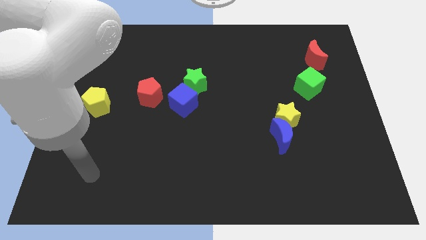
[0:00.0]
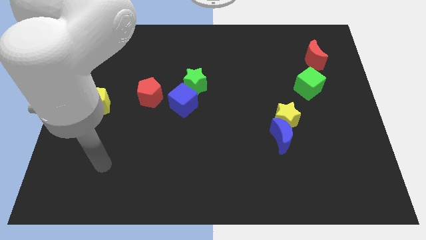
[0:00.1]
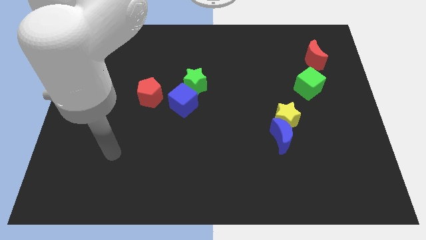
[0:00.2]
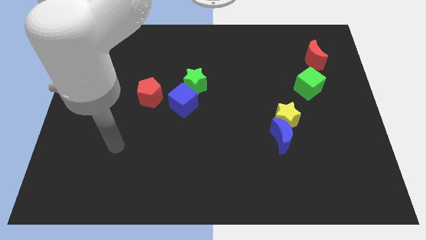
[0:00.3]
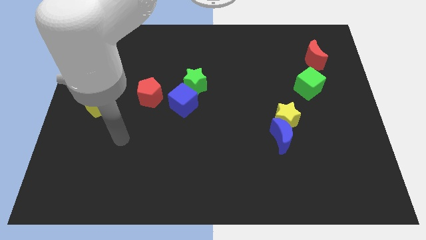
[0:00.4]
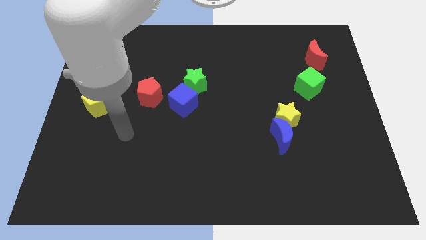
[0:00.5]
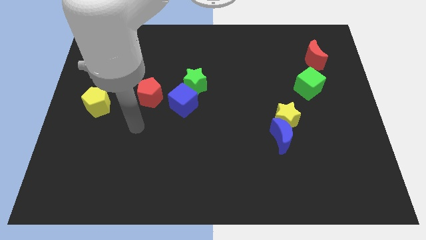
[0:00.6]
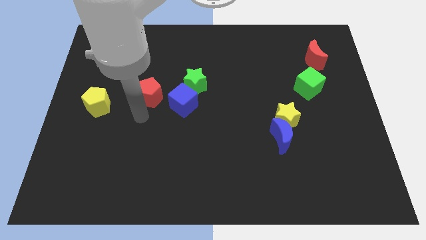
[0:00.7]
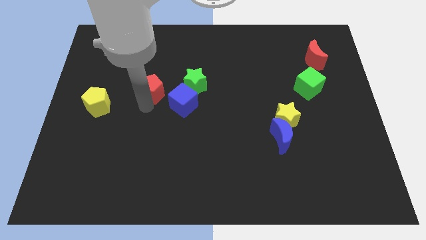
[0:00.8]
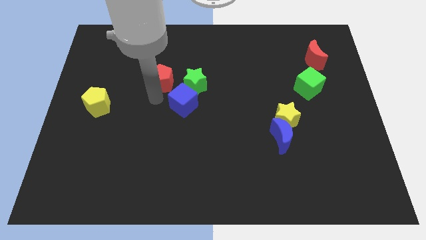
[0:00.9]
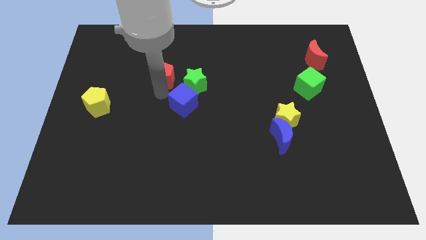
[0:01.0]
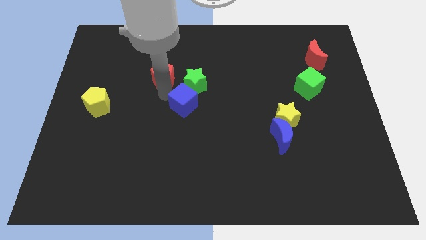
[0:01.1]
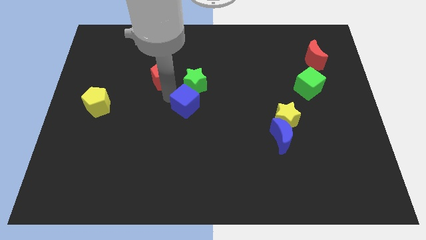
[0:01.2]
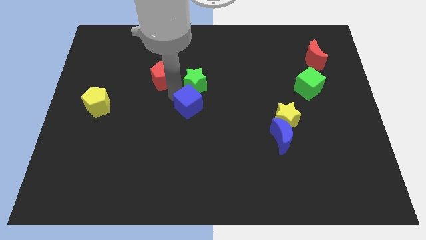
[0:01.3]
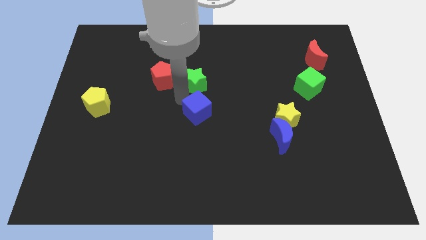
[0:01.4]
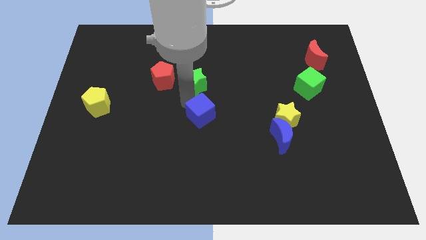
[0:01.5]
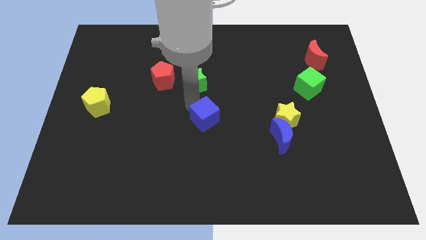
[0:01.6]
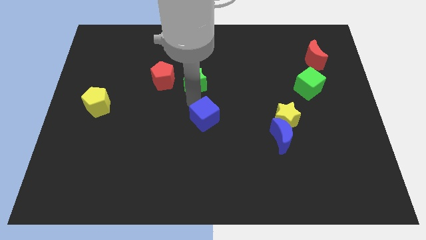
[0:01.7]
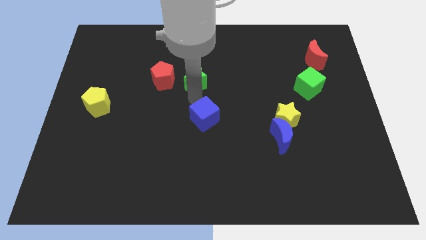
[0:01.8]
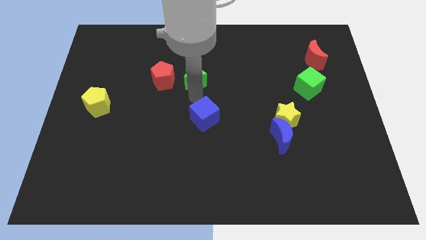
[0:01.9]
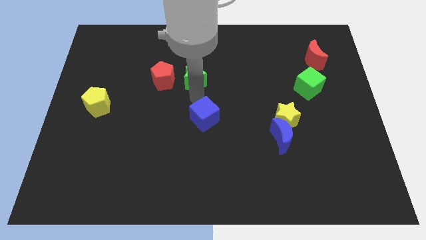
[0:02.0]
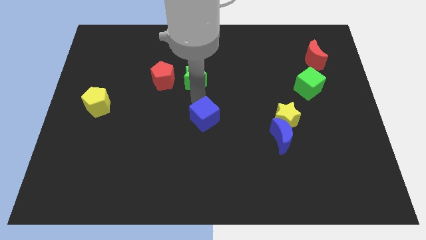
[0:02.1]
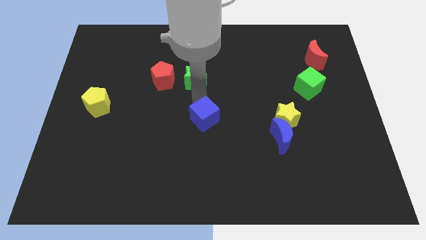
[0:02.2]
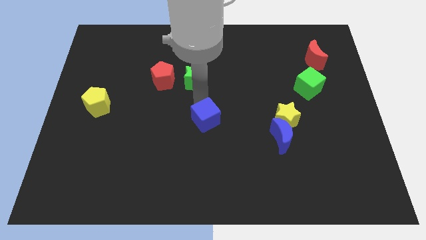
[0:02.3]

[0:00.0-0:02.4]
slightly move the blue cube down and then right

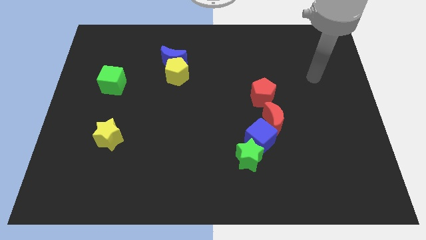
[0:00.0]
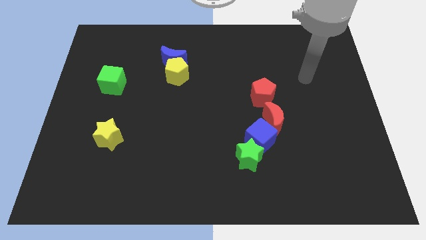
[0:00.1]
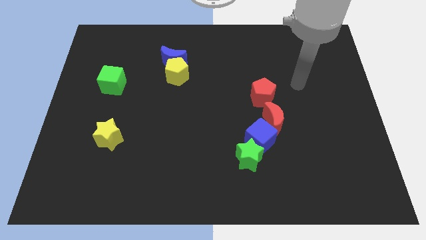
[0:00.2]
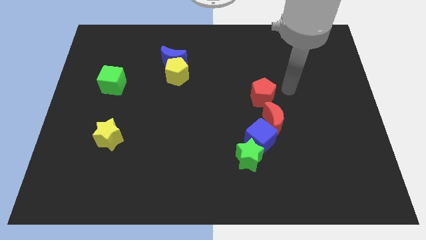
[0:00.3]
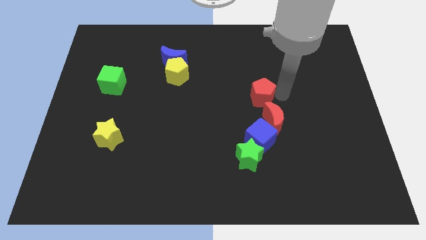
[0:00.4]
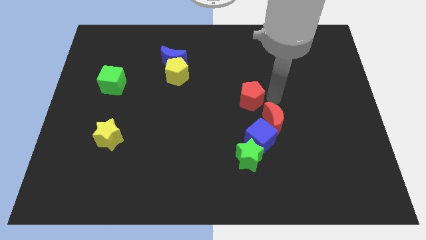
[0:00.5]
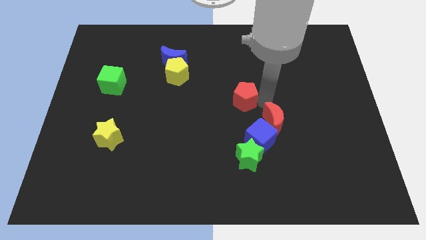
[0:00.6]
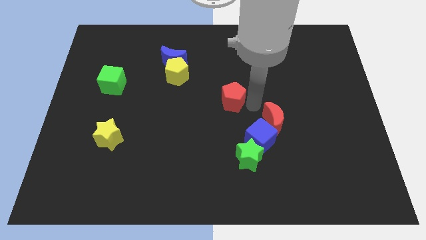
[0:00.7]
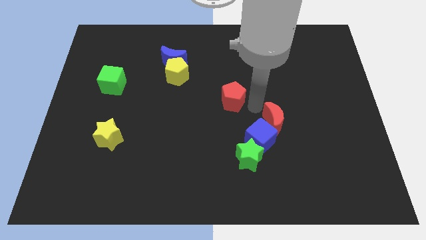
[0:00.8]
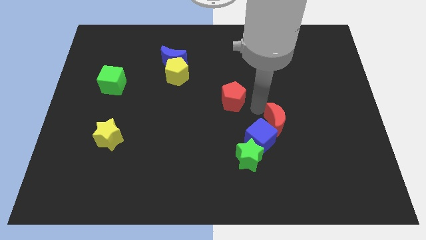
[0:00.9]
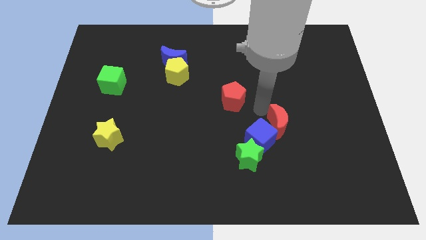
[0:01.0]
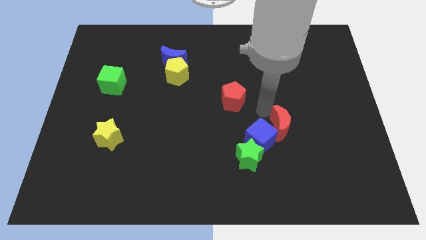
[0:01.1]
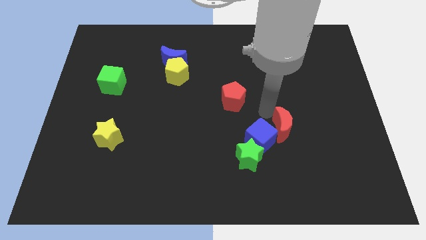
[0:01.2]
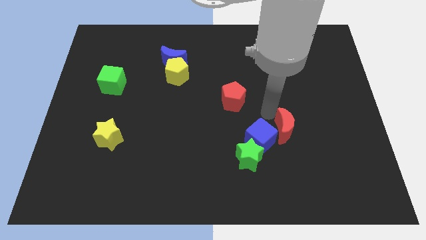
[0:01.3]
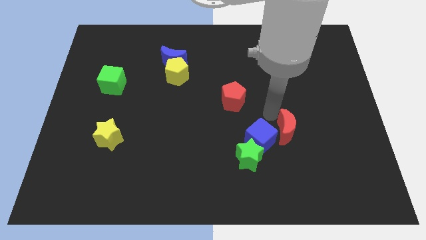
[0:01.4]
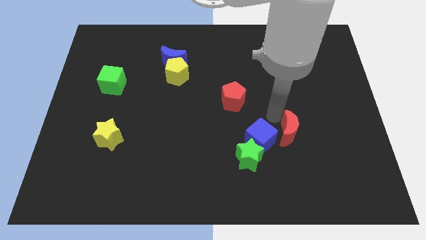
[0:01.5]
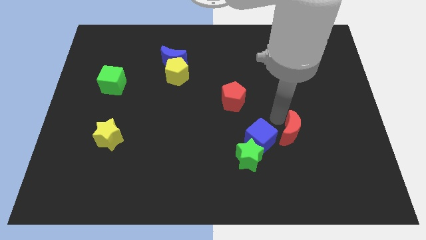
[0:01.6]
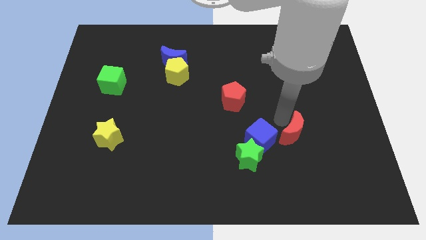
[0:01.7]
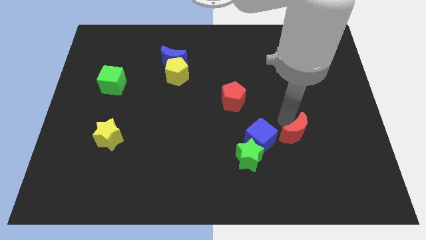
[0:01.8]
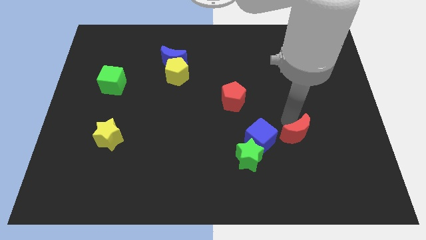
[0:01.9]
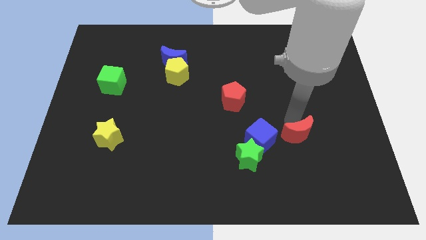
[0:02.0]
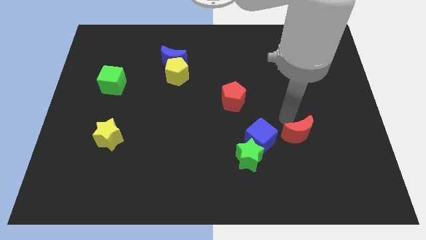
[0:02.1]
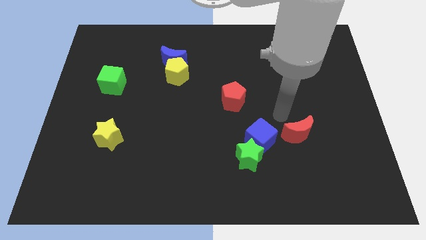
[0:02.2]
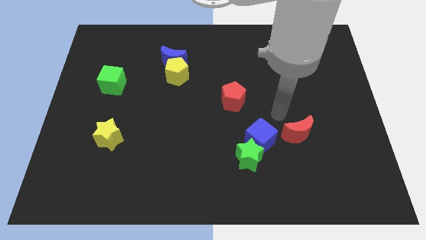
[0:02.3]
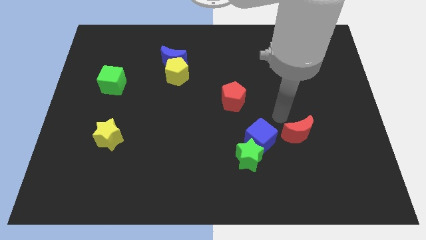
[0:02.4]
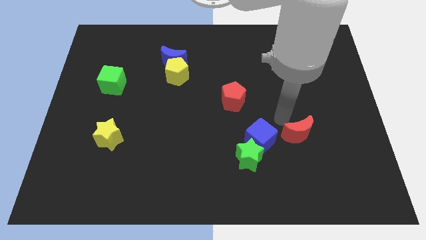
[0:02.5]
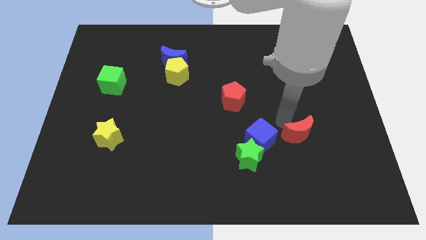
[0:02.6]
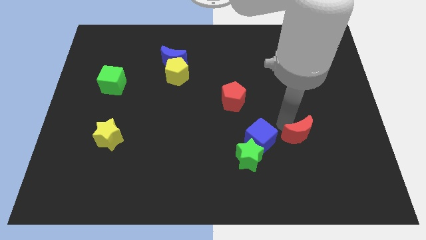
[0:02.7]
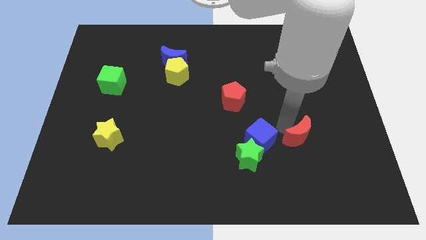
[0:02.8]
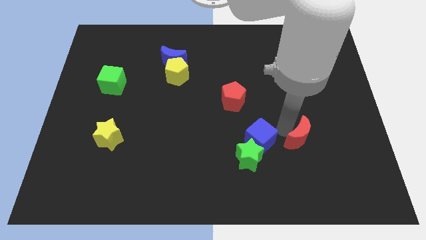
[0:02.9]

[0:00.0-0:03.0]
slightly push the red moon diagonally down and right

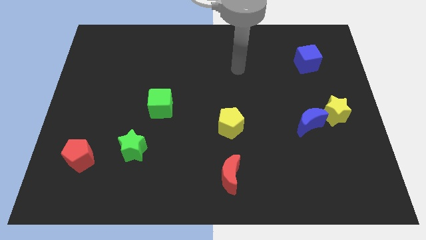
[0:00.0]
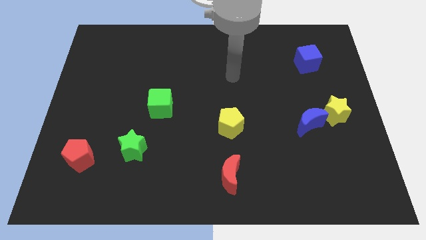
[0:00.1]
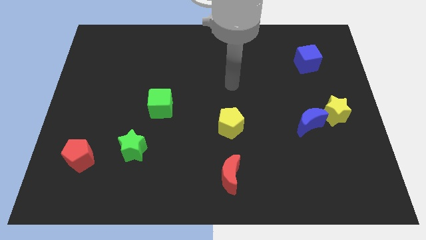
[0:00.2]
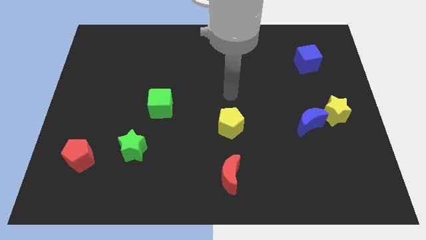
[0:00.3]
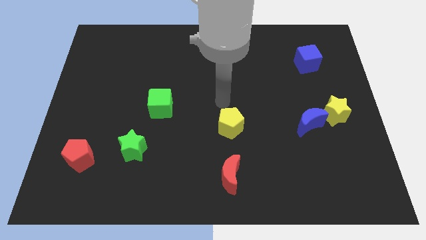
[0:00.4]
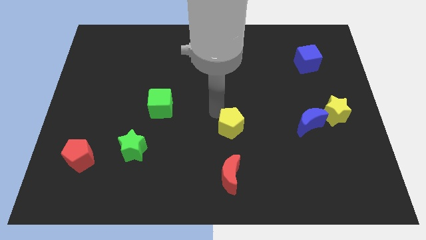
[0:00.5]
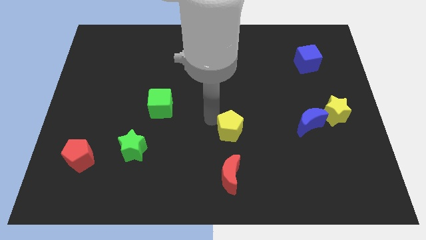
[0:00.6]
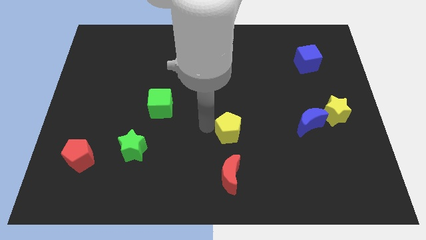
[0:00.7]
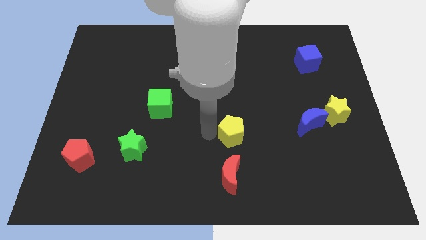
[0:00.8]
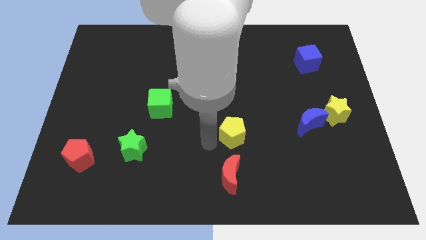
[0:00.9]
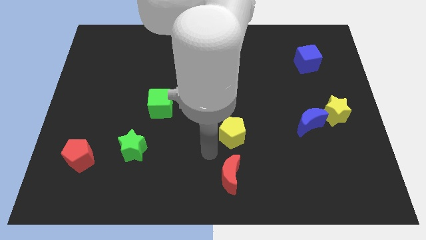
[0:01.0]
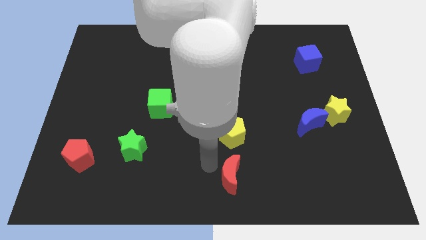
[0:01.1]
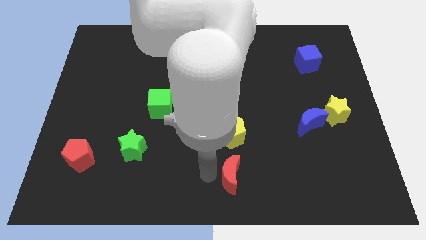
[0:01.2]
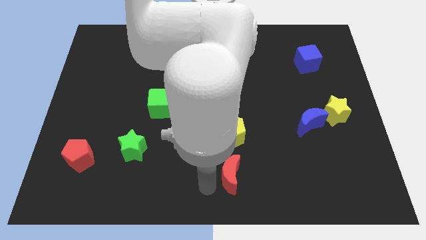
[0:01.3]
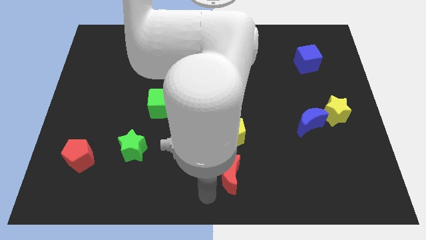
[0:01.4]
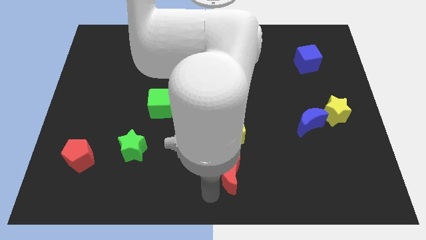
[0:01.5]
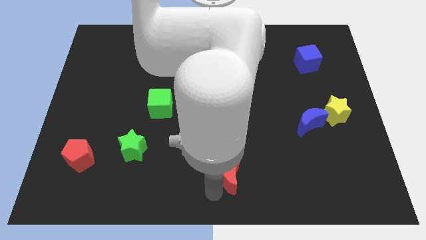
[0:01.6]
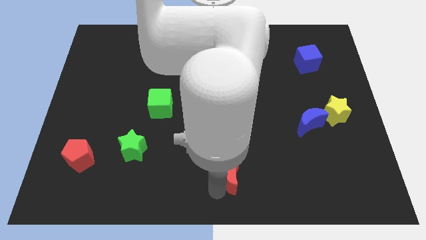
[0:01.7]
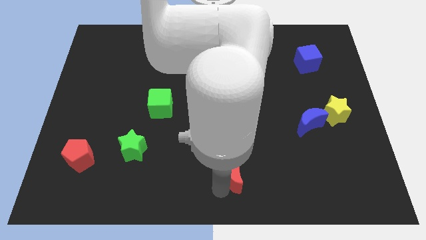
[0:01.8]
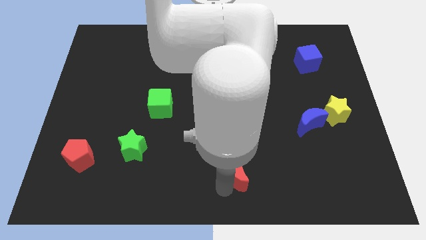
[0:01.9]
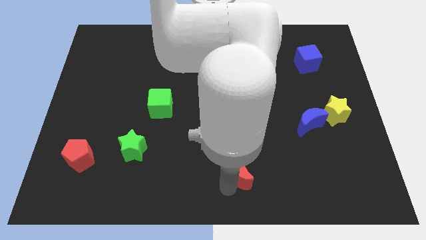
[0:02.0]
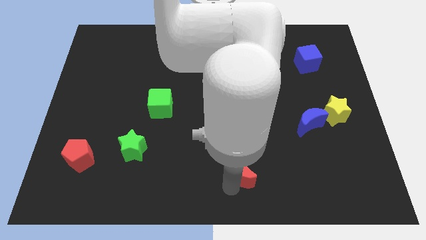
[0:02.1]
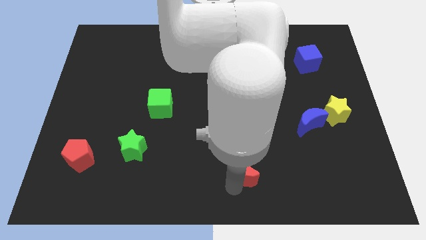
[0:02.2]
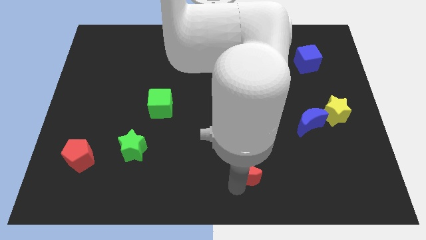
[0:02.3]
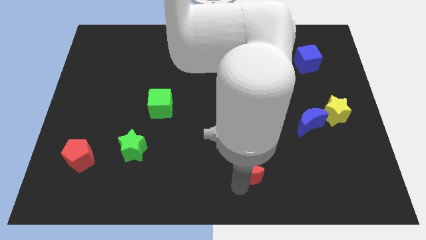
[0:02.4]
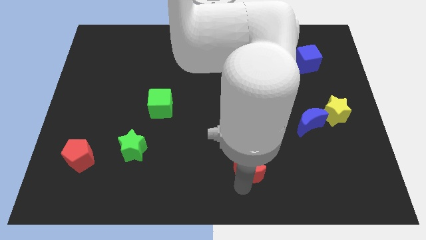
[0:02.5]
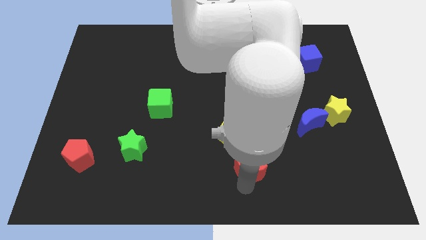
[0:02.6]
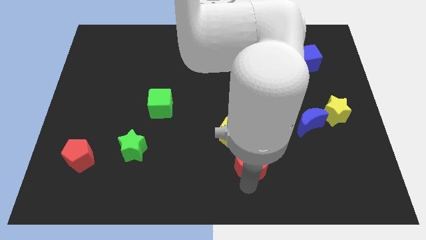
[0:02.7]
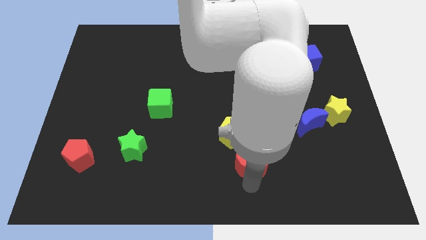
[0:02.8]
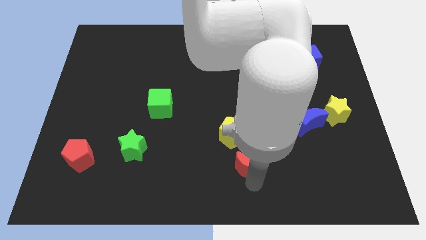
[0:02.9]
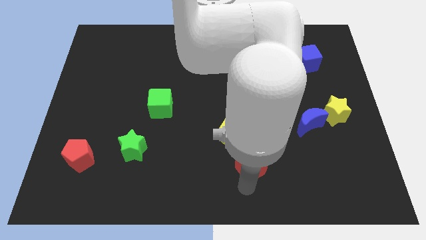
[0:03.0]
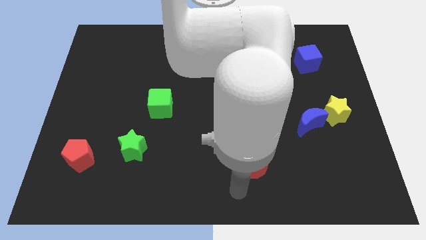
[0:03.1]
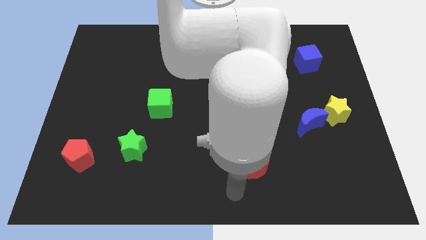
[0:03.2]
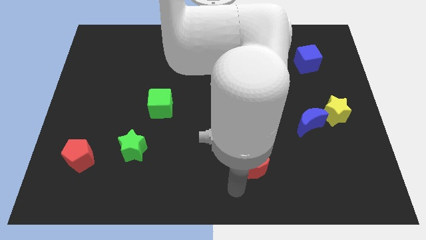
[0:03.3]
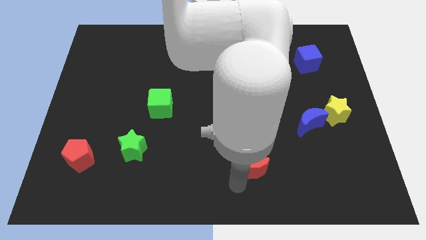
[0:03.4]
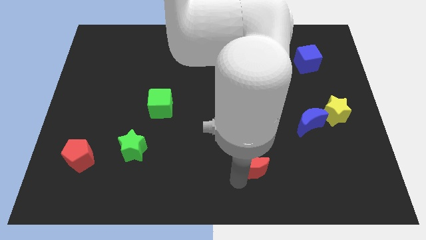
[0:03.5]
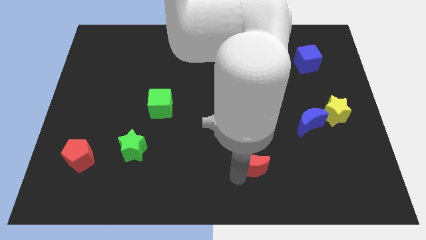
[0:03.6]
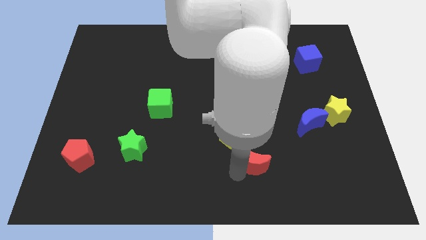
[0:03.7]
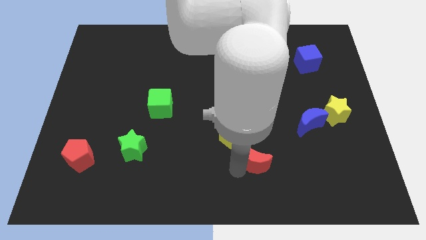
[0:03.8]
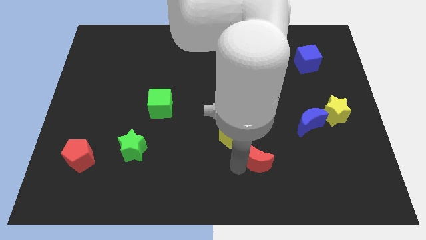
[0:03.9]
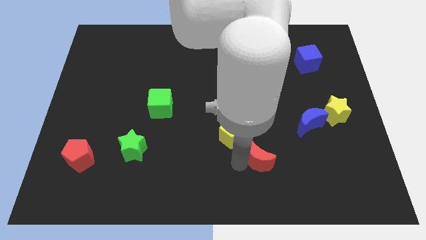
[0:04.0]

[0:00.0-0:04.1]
slightly move the red moon diagonally upwards and right
